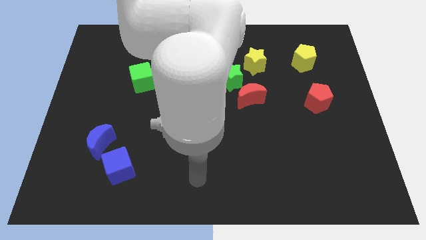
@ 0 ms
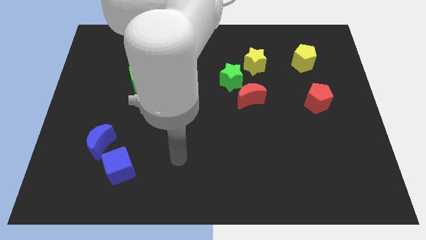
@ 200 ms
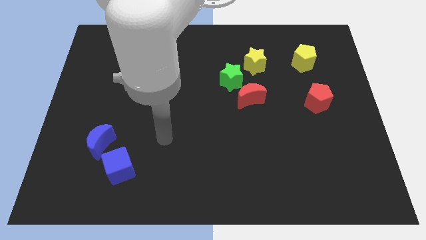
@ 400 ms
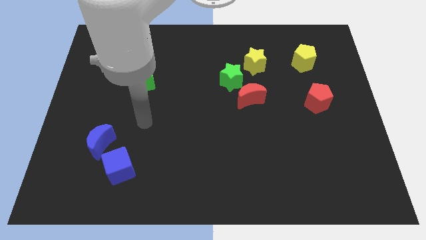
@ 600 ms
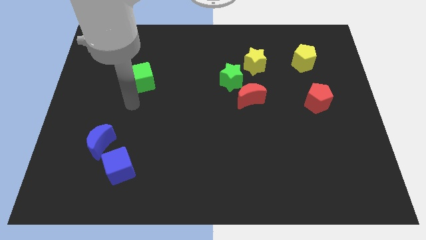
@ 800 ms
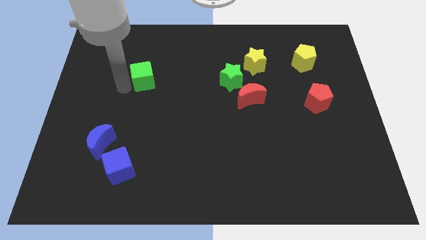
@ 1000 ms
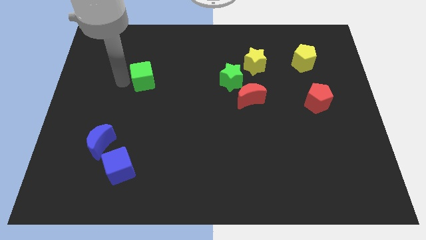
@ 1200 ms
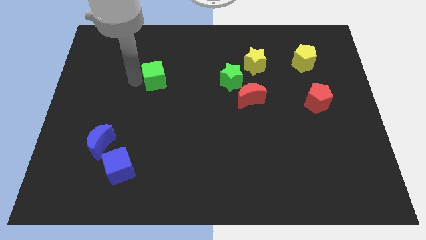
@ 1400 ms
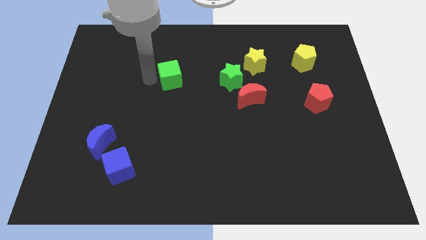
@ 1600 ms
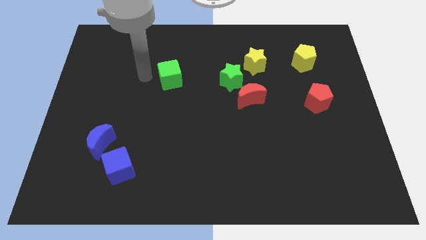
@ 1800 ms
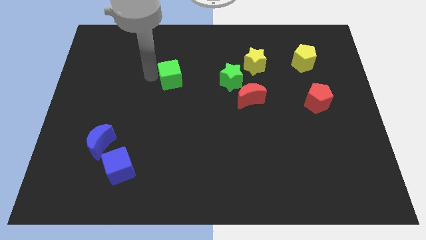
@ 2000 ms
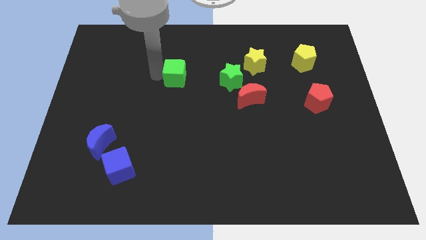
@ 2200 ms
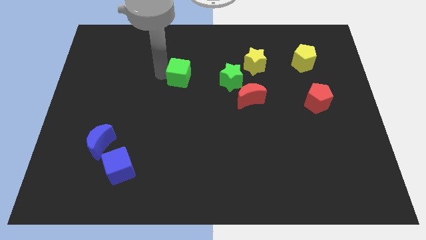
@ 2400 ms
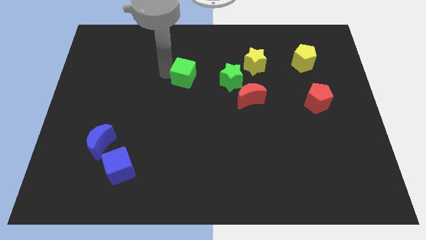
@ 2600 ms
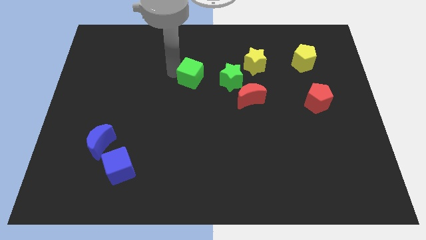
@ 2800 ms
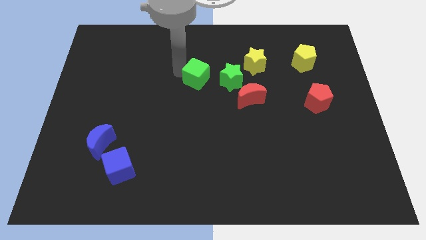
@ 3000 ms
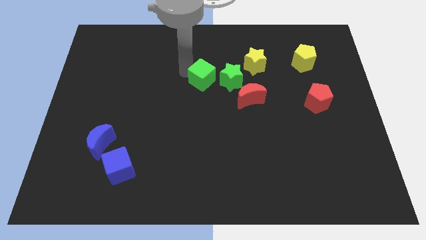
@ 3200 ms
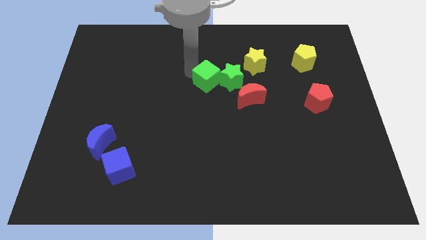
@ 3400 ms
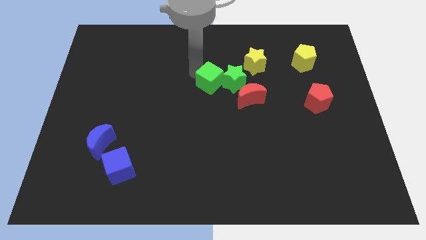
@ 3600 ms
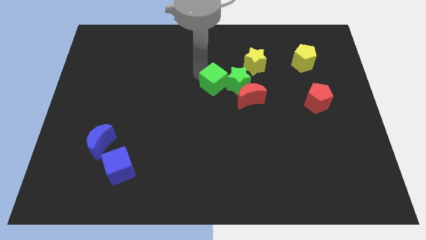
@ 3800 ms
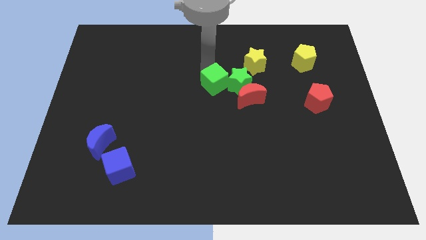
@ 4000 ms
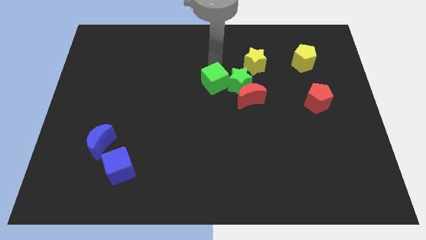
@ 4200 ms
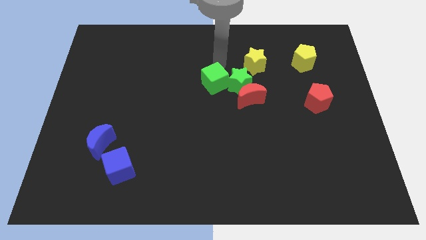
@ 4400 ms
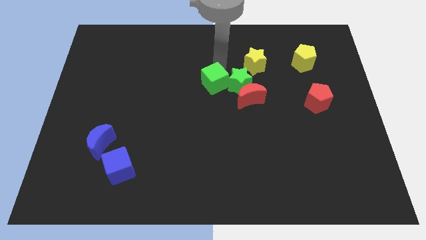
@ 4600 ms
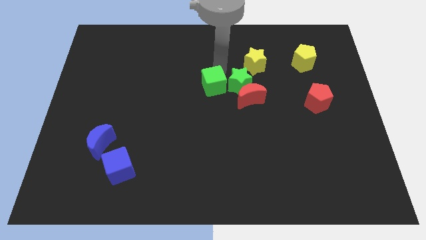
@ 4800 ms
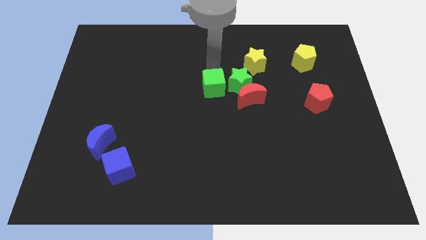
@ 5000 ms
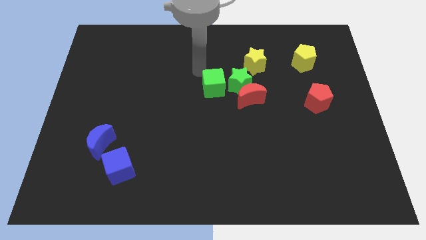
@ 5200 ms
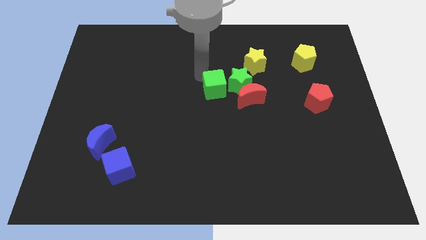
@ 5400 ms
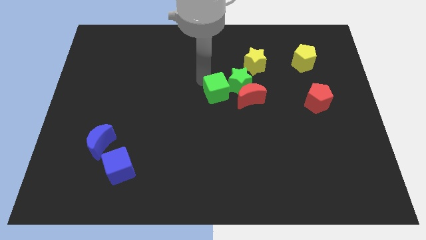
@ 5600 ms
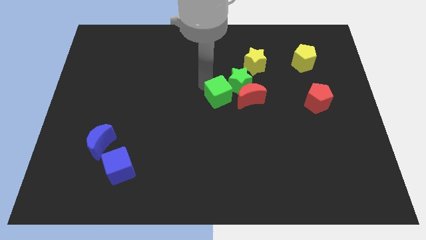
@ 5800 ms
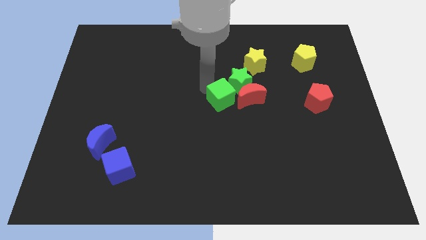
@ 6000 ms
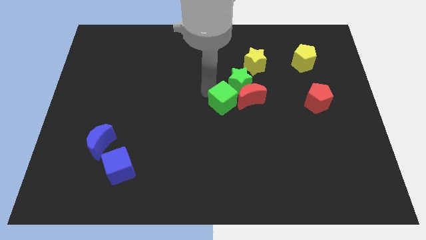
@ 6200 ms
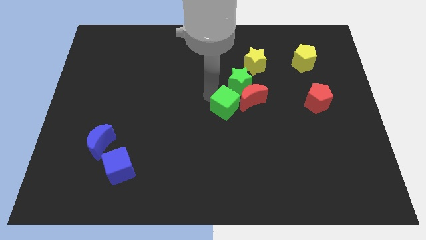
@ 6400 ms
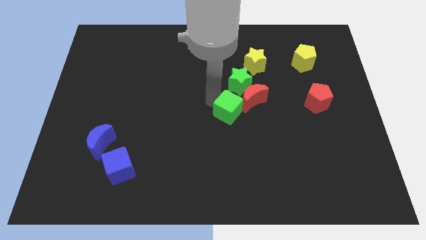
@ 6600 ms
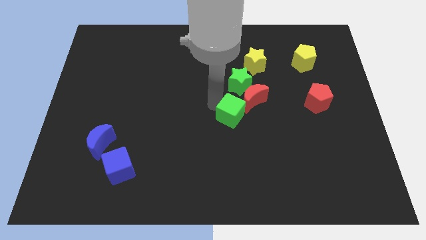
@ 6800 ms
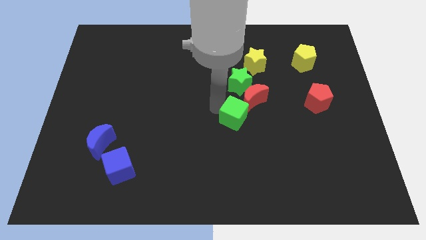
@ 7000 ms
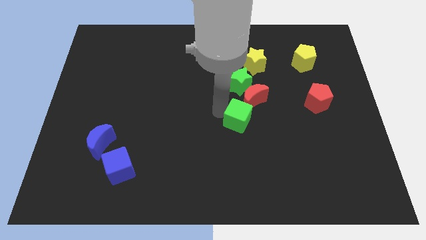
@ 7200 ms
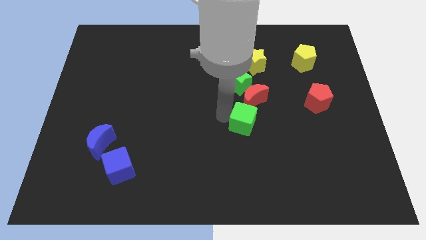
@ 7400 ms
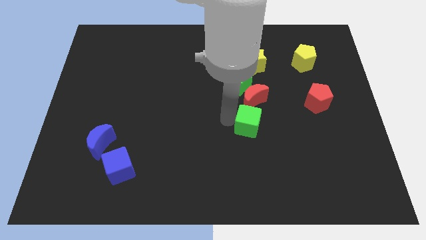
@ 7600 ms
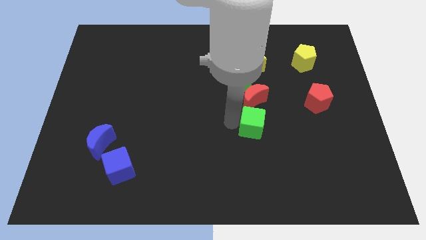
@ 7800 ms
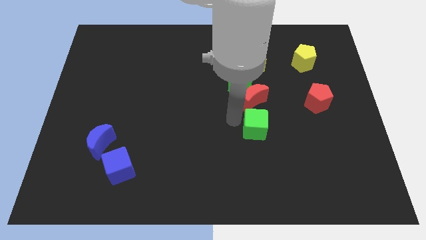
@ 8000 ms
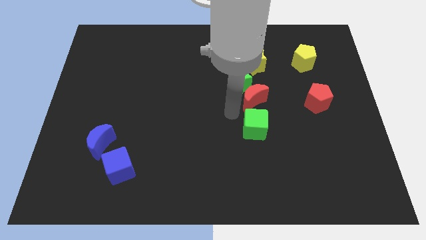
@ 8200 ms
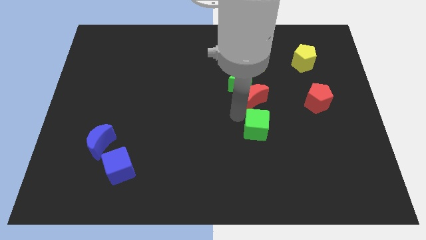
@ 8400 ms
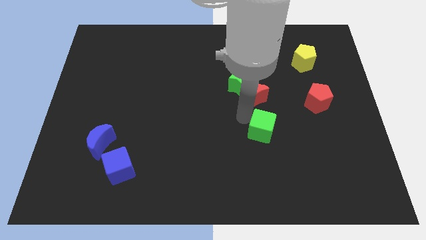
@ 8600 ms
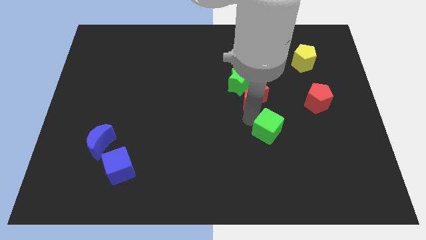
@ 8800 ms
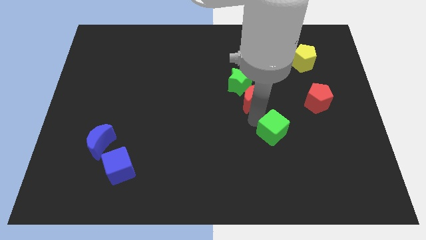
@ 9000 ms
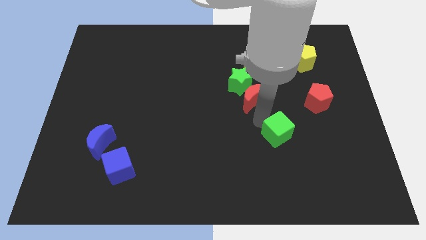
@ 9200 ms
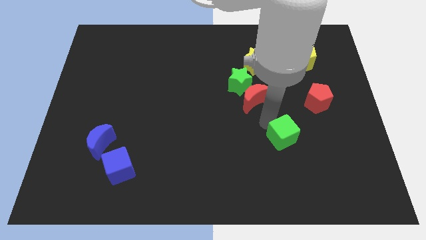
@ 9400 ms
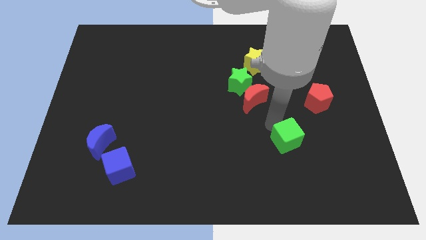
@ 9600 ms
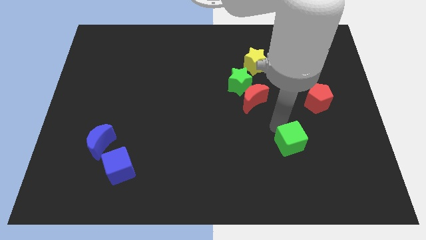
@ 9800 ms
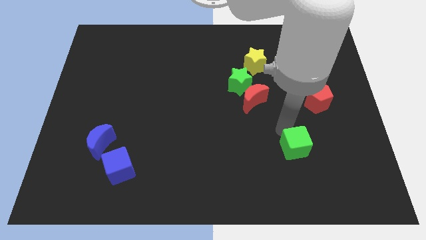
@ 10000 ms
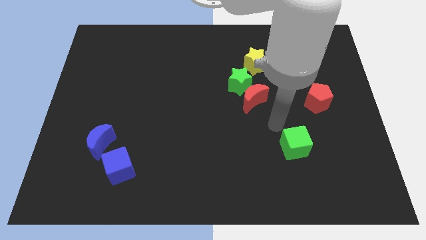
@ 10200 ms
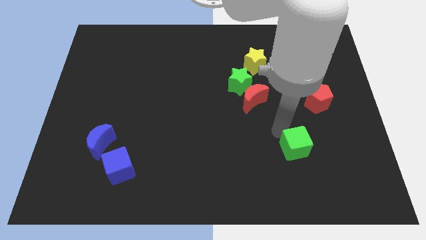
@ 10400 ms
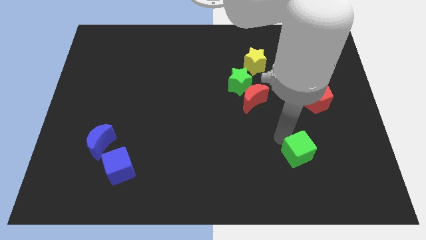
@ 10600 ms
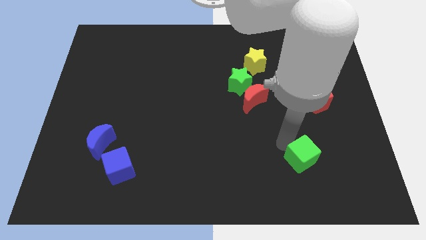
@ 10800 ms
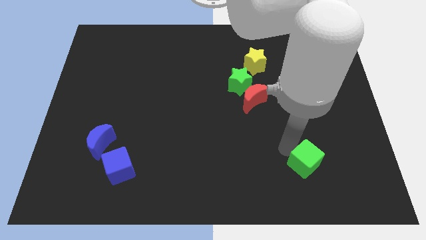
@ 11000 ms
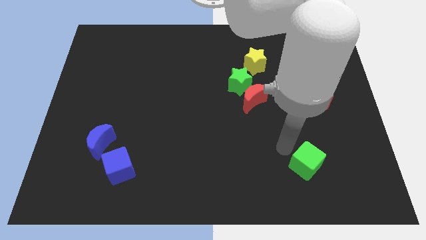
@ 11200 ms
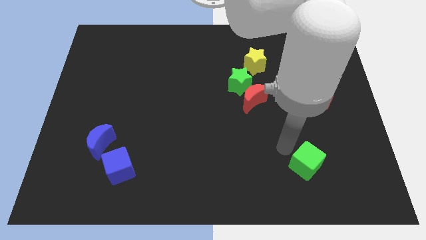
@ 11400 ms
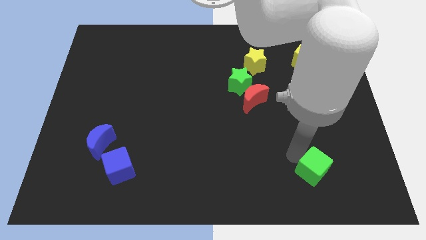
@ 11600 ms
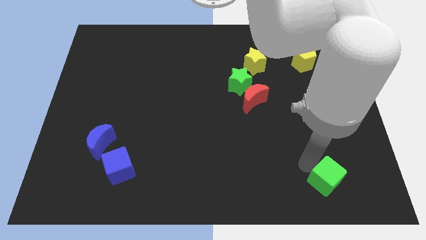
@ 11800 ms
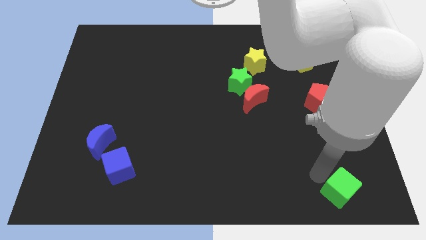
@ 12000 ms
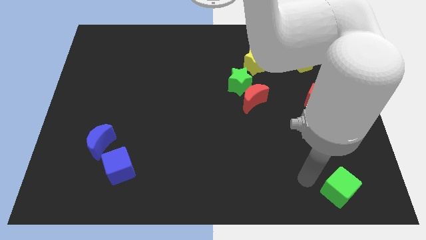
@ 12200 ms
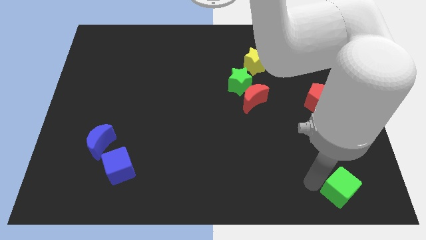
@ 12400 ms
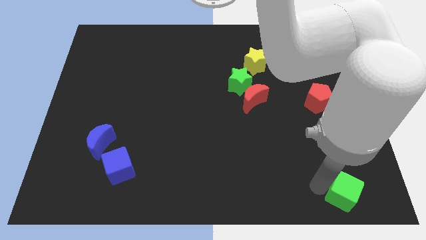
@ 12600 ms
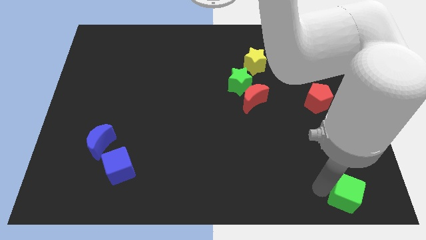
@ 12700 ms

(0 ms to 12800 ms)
move the green cube to the bottom right of the board
